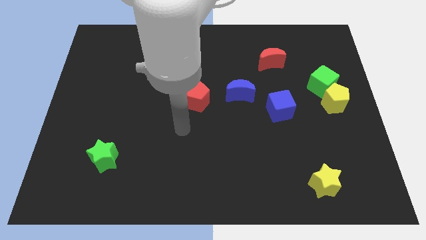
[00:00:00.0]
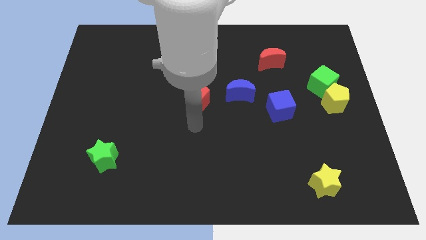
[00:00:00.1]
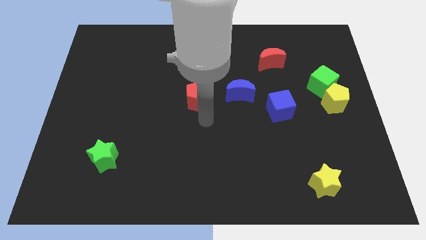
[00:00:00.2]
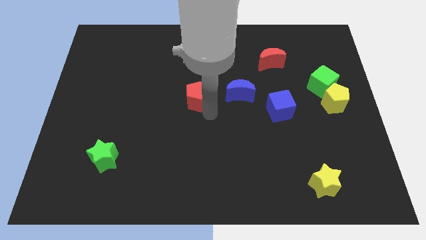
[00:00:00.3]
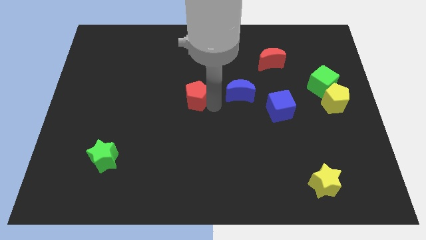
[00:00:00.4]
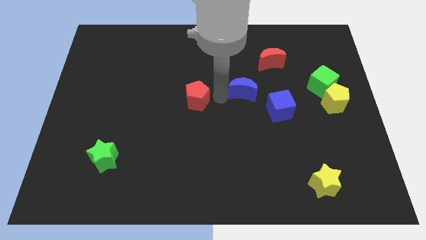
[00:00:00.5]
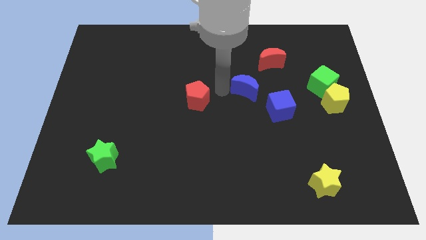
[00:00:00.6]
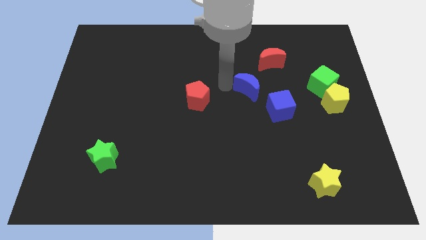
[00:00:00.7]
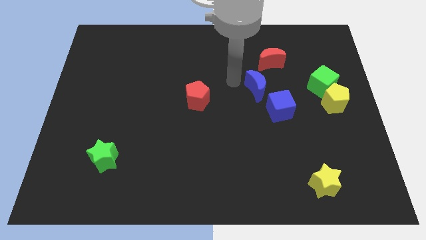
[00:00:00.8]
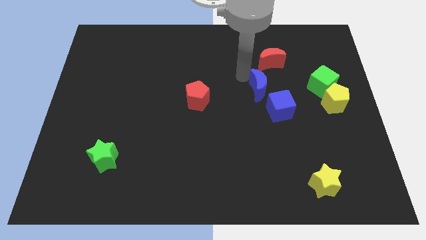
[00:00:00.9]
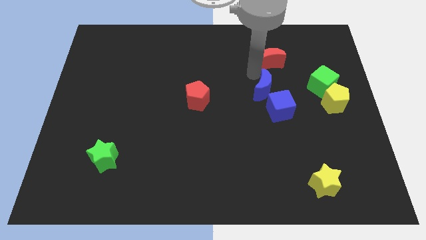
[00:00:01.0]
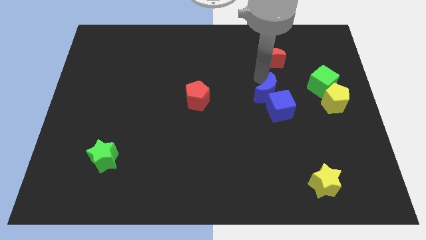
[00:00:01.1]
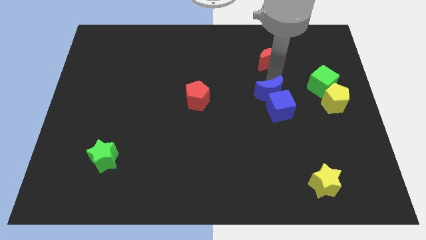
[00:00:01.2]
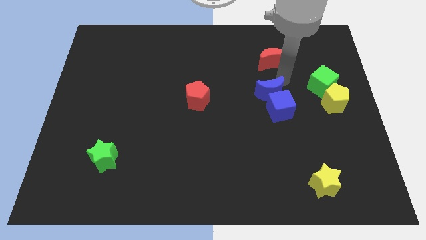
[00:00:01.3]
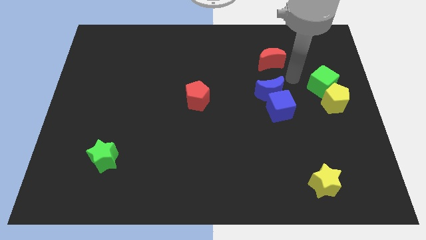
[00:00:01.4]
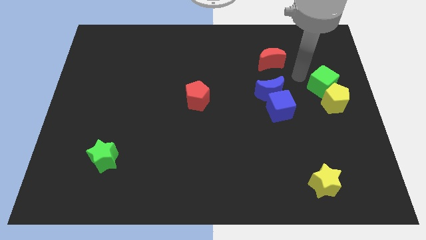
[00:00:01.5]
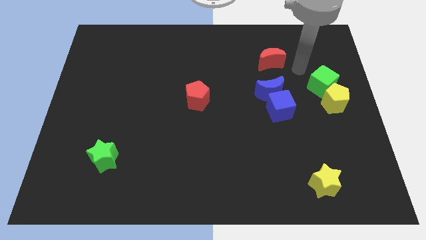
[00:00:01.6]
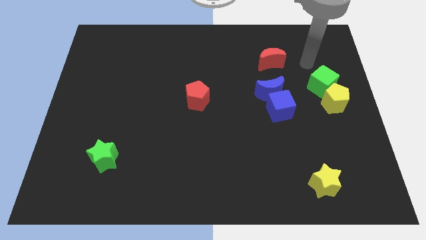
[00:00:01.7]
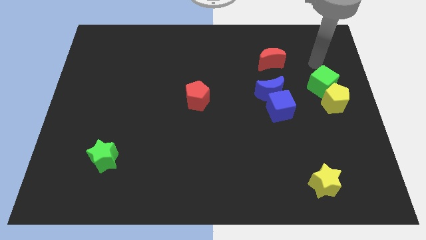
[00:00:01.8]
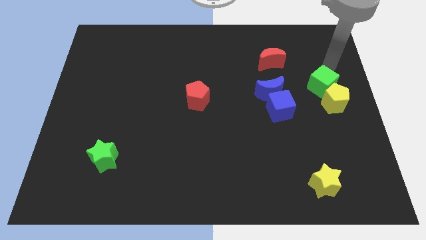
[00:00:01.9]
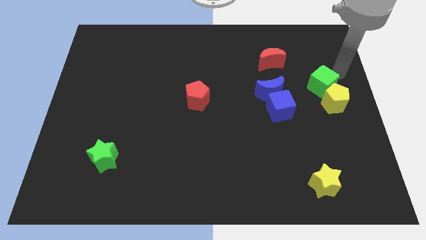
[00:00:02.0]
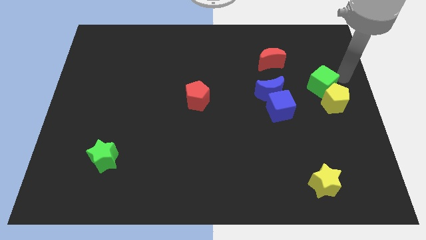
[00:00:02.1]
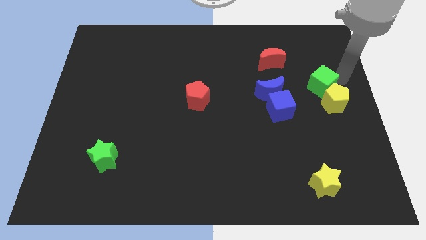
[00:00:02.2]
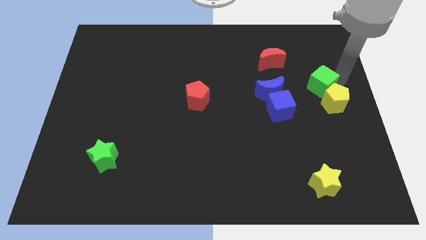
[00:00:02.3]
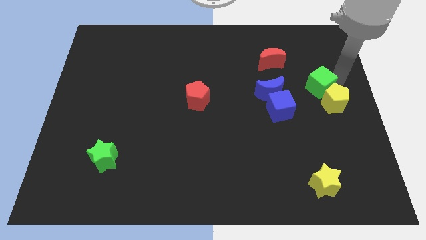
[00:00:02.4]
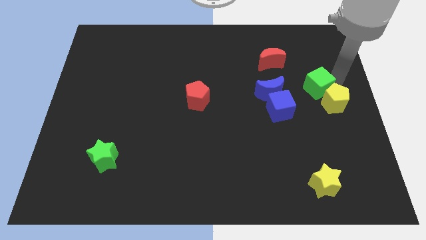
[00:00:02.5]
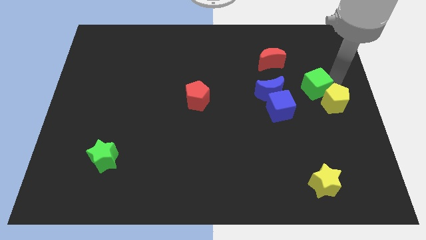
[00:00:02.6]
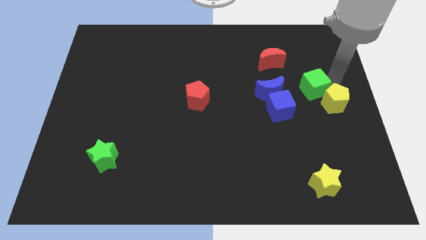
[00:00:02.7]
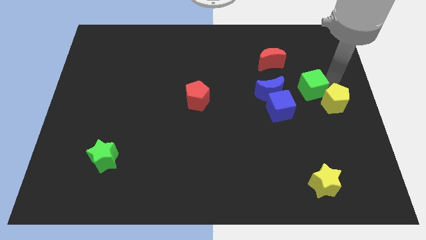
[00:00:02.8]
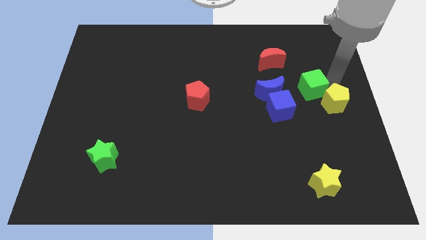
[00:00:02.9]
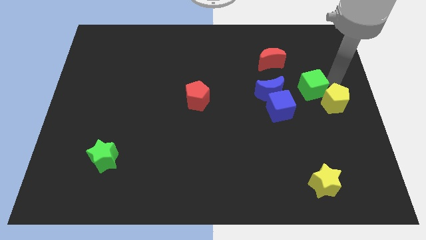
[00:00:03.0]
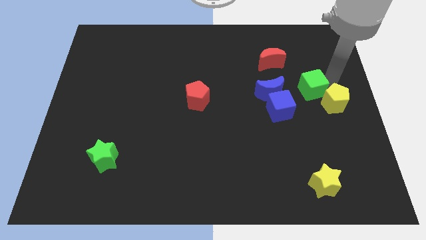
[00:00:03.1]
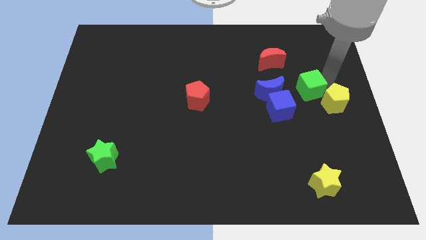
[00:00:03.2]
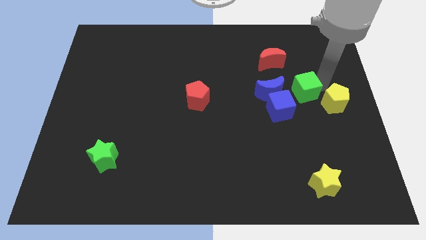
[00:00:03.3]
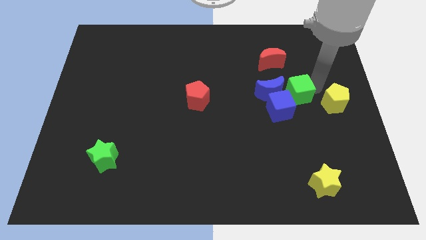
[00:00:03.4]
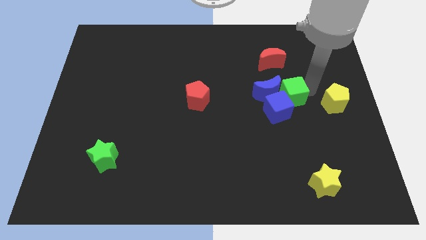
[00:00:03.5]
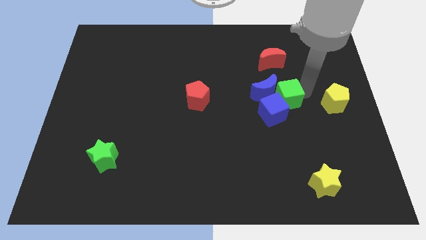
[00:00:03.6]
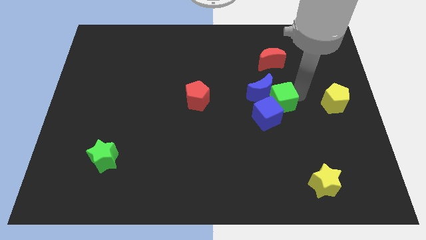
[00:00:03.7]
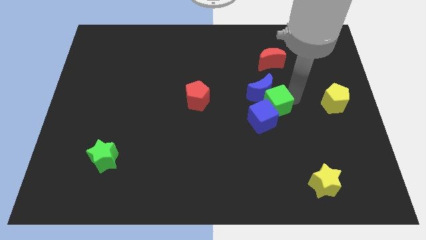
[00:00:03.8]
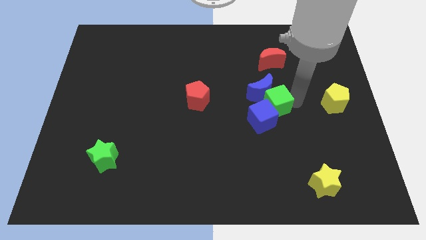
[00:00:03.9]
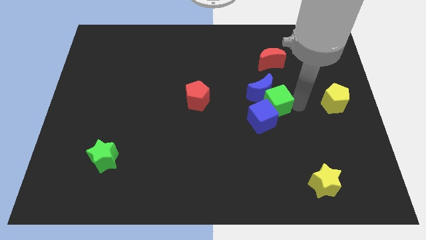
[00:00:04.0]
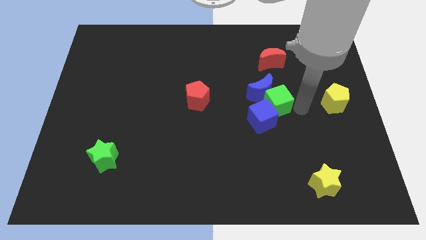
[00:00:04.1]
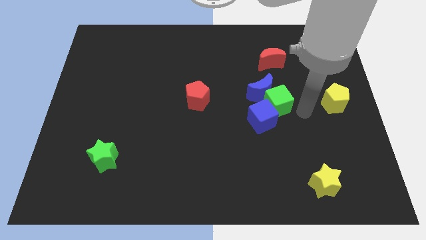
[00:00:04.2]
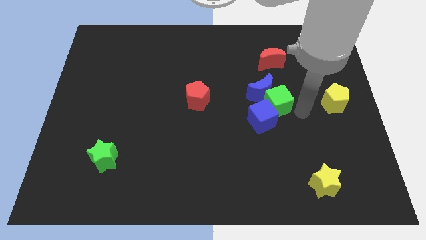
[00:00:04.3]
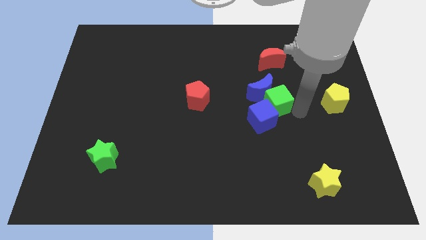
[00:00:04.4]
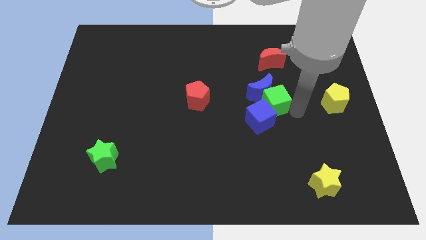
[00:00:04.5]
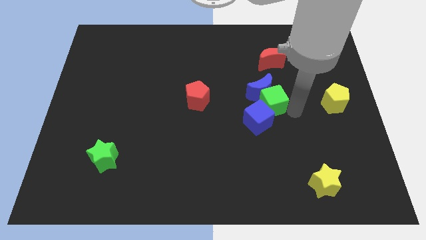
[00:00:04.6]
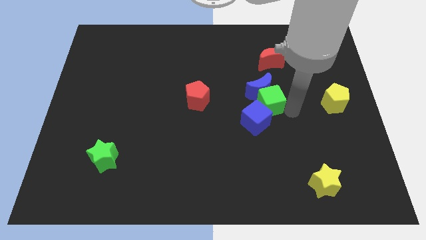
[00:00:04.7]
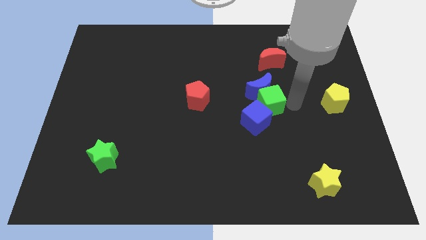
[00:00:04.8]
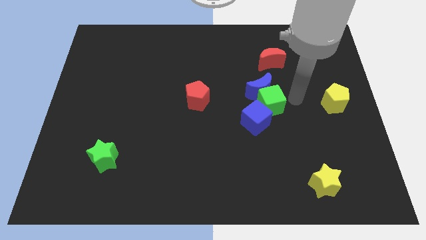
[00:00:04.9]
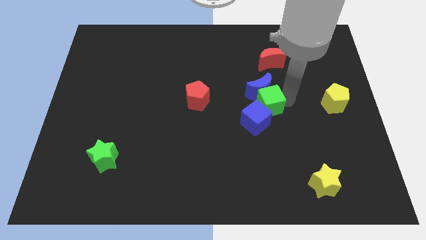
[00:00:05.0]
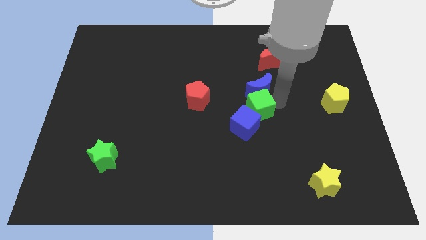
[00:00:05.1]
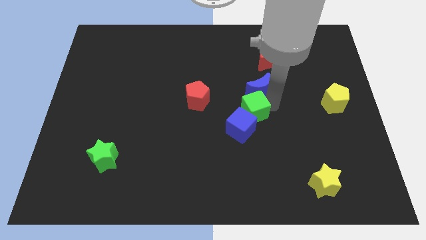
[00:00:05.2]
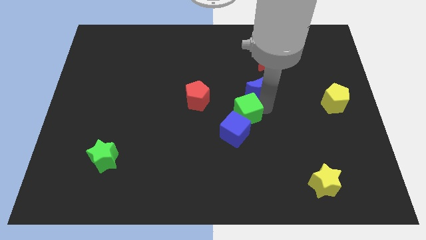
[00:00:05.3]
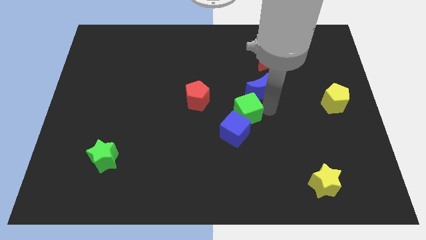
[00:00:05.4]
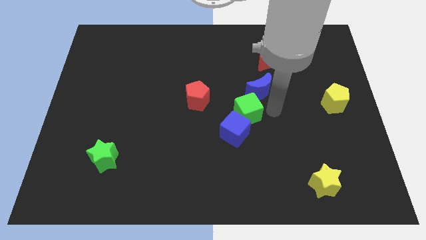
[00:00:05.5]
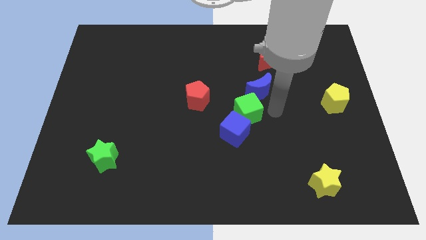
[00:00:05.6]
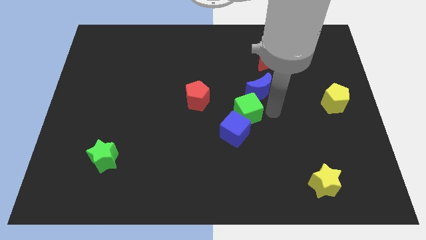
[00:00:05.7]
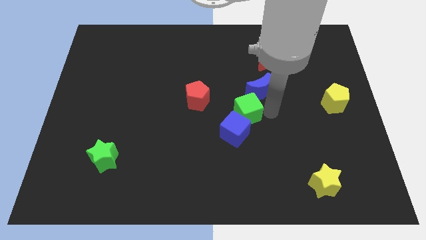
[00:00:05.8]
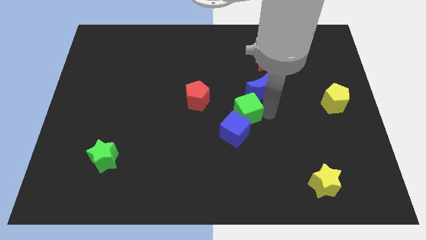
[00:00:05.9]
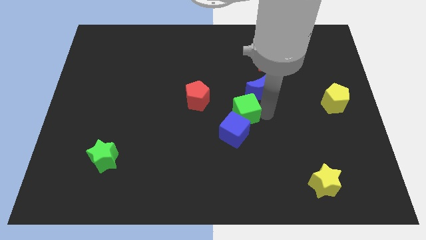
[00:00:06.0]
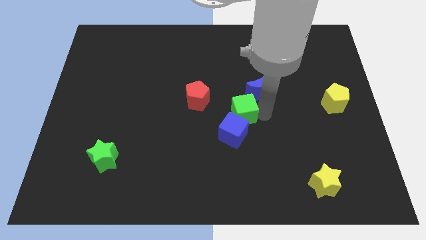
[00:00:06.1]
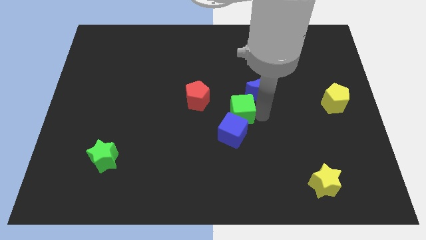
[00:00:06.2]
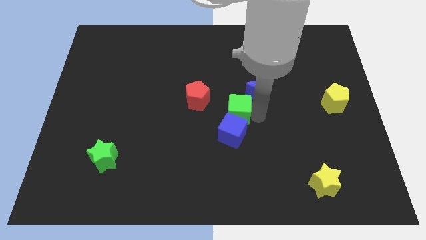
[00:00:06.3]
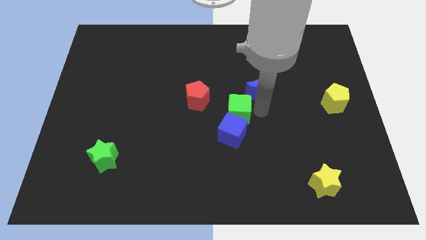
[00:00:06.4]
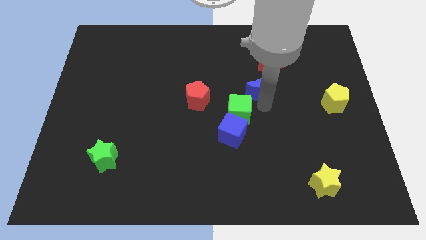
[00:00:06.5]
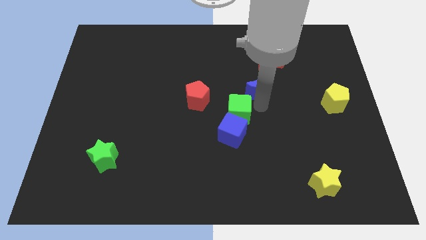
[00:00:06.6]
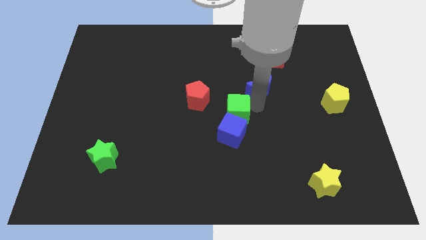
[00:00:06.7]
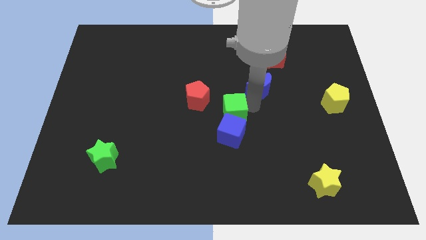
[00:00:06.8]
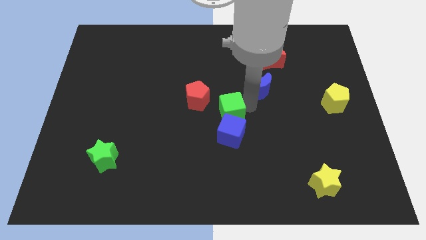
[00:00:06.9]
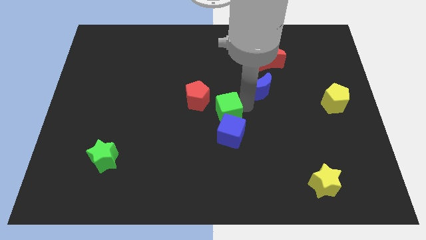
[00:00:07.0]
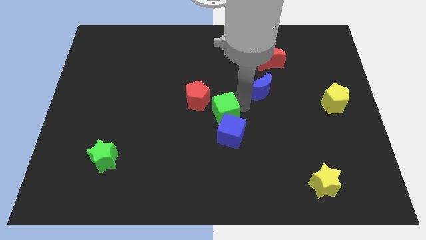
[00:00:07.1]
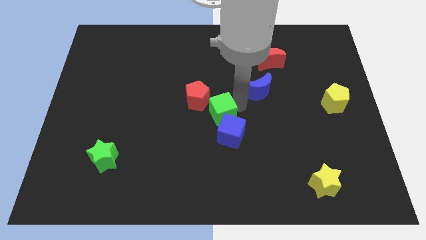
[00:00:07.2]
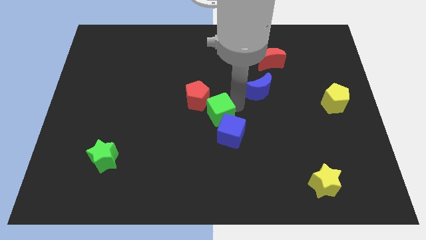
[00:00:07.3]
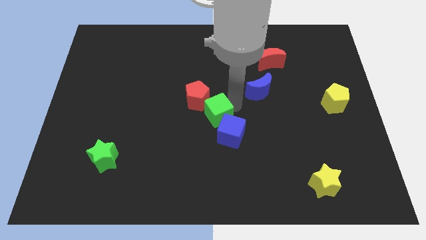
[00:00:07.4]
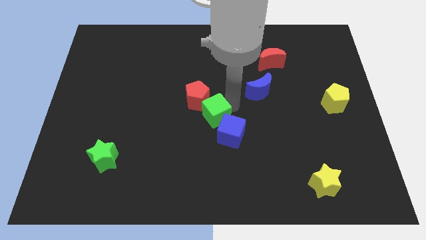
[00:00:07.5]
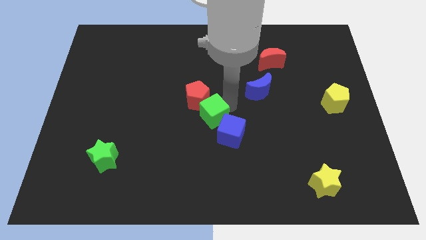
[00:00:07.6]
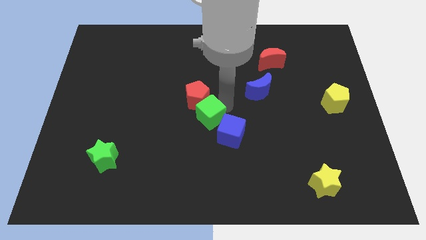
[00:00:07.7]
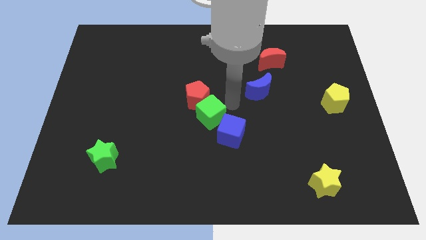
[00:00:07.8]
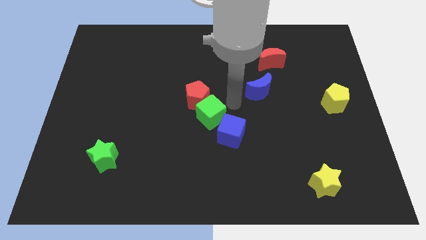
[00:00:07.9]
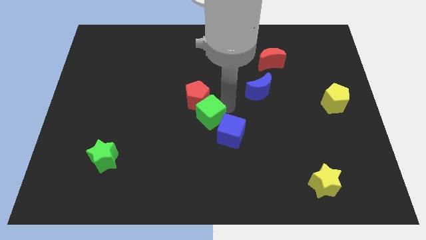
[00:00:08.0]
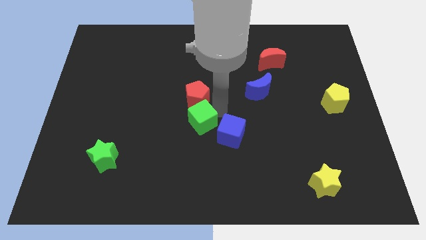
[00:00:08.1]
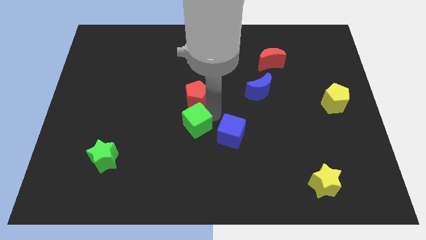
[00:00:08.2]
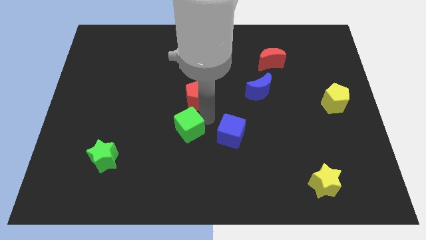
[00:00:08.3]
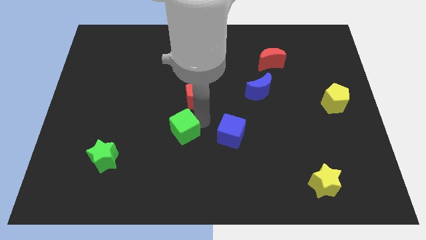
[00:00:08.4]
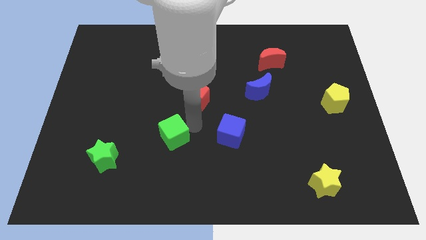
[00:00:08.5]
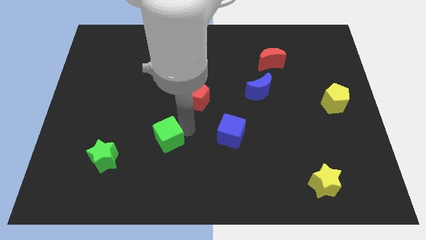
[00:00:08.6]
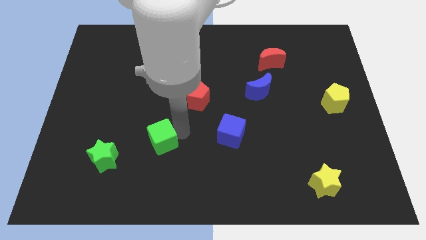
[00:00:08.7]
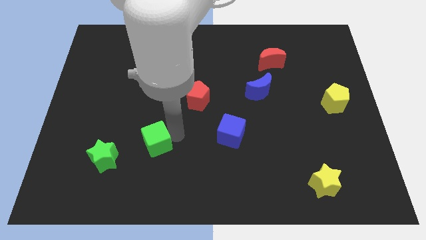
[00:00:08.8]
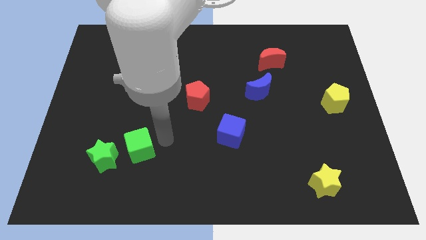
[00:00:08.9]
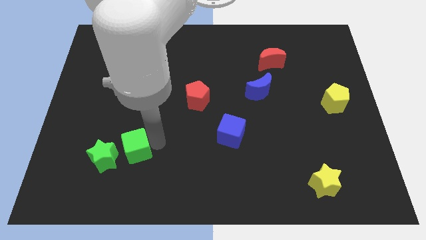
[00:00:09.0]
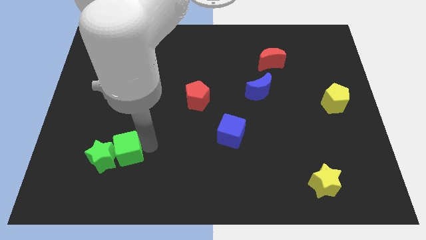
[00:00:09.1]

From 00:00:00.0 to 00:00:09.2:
slide the green cube towards the green star
